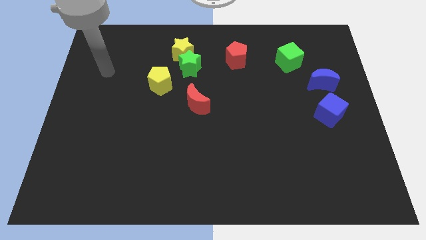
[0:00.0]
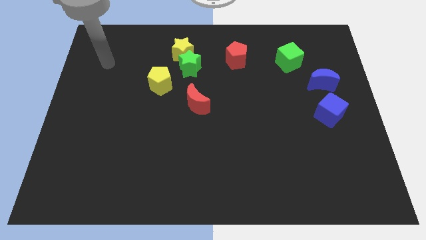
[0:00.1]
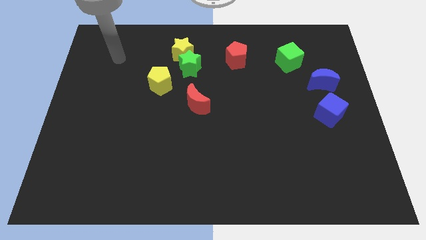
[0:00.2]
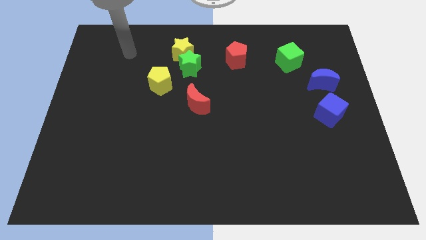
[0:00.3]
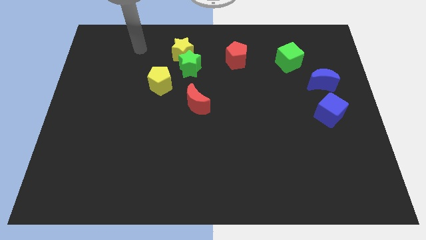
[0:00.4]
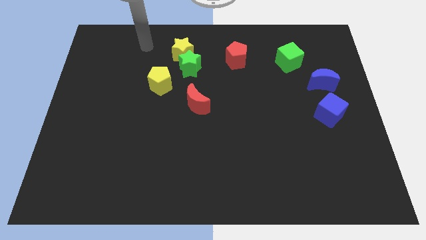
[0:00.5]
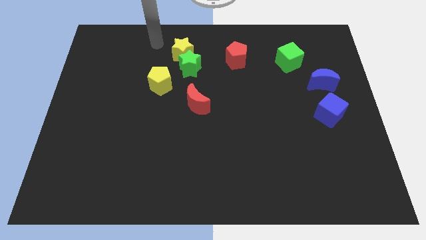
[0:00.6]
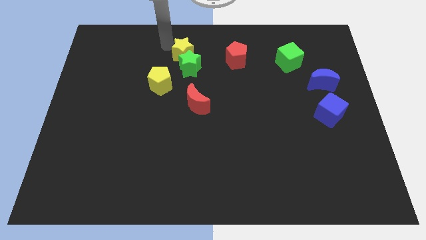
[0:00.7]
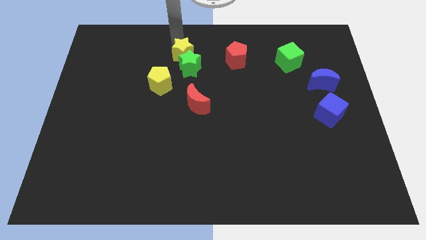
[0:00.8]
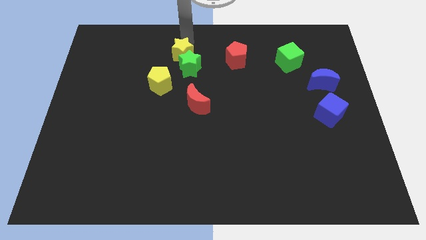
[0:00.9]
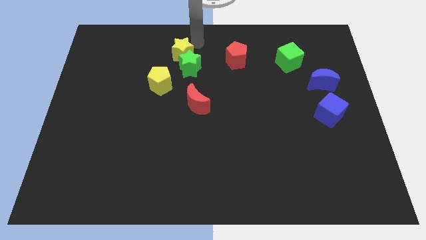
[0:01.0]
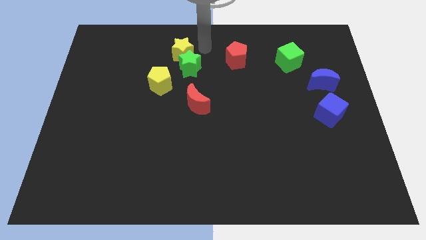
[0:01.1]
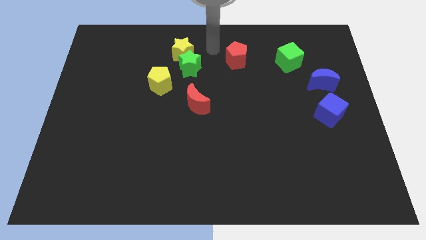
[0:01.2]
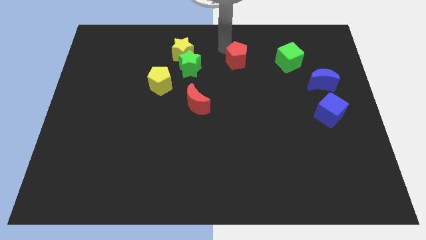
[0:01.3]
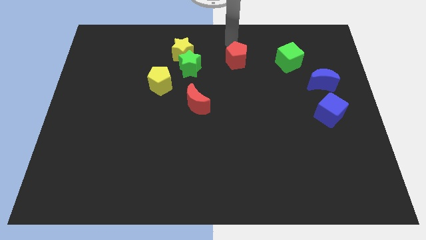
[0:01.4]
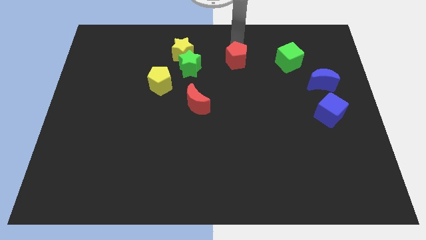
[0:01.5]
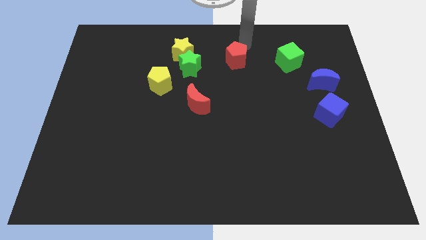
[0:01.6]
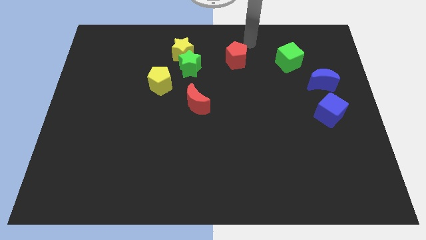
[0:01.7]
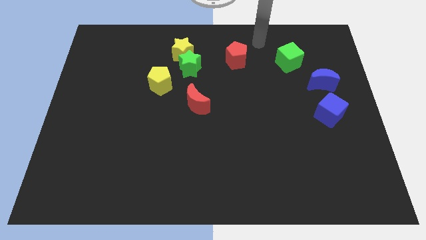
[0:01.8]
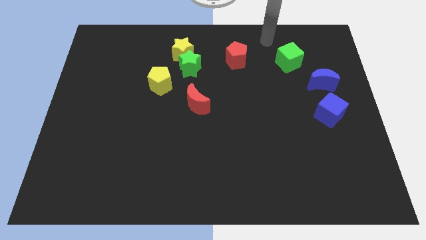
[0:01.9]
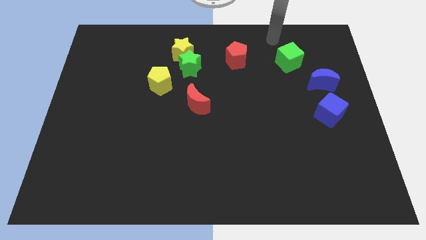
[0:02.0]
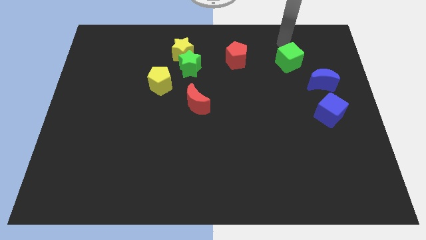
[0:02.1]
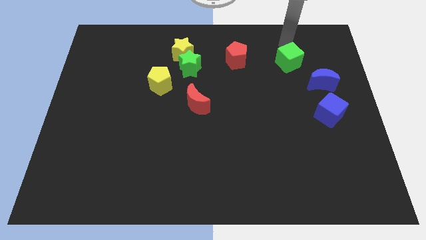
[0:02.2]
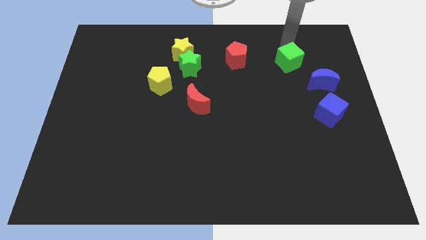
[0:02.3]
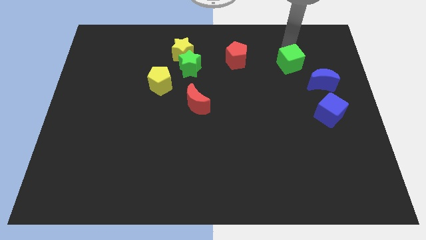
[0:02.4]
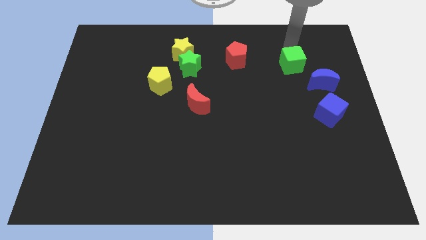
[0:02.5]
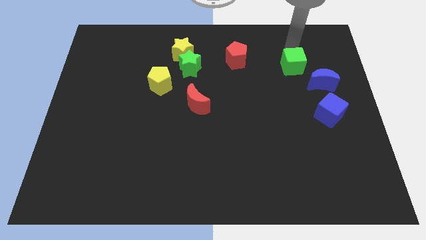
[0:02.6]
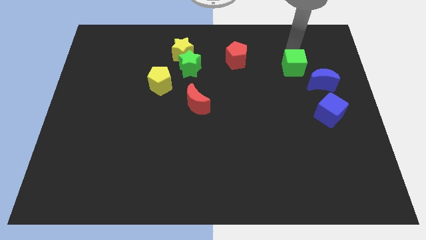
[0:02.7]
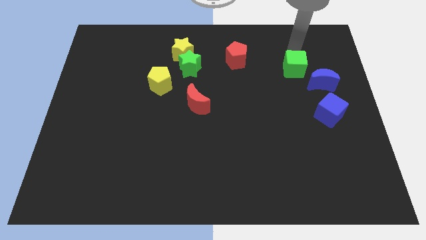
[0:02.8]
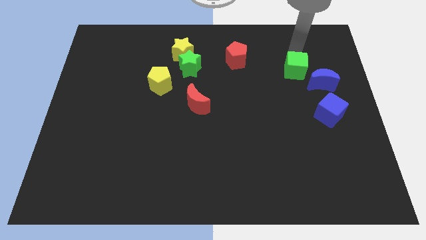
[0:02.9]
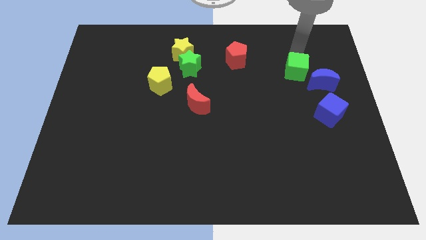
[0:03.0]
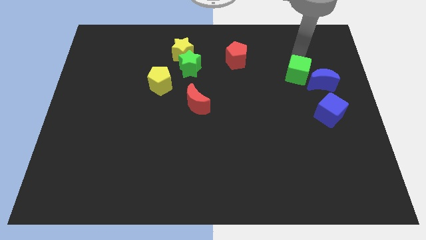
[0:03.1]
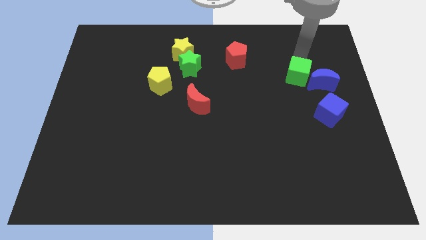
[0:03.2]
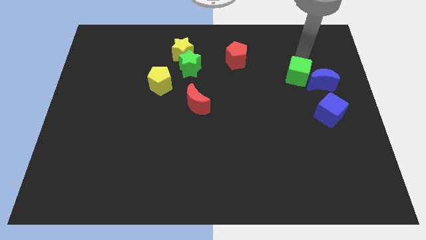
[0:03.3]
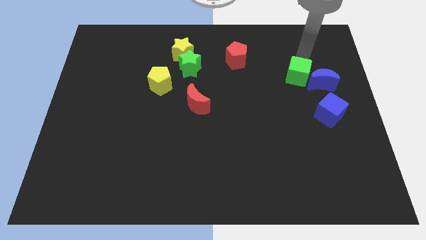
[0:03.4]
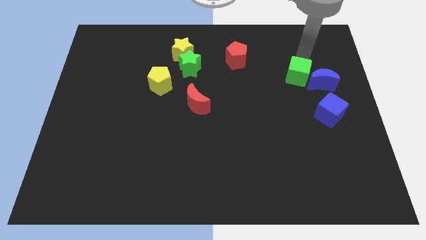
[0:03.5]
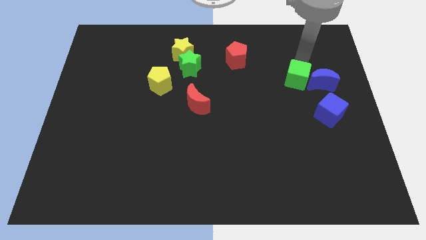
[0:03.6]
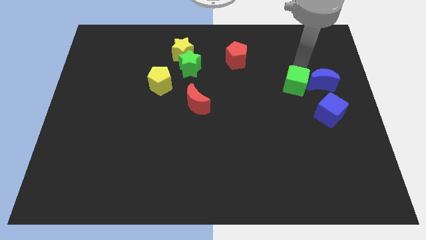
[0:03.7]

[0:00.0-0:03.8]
move the green cube downwards a little bit

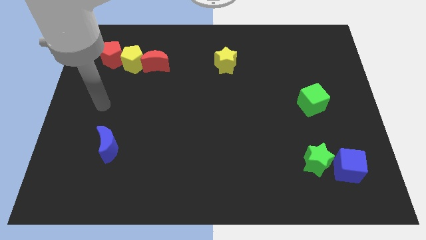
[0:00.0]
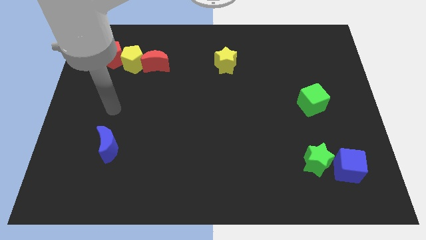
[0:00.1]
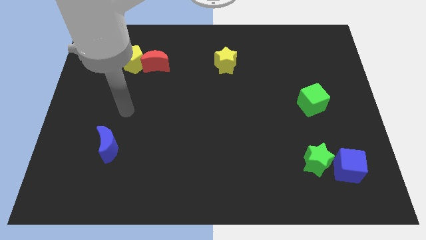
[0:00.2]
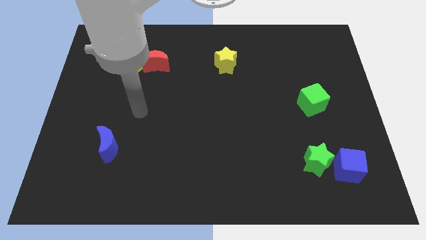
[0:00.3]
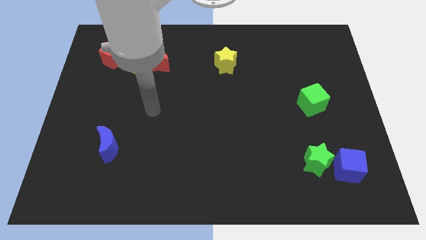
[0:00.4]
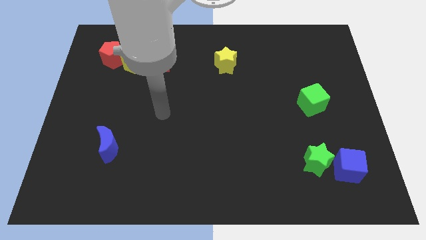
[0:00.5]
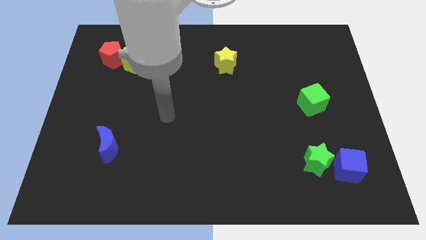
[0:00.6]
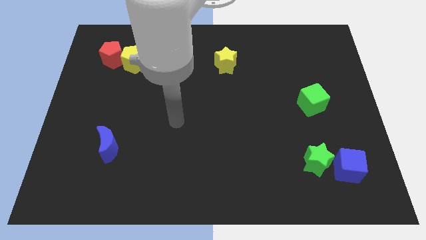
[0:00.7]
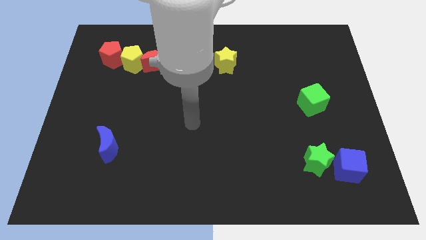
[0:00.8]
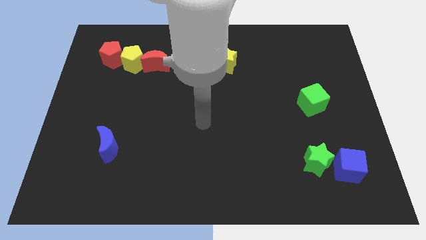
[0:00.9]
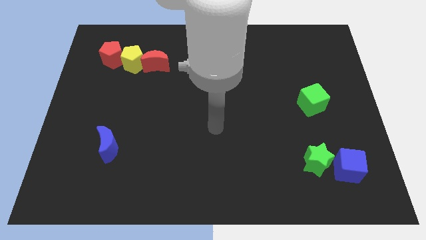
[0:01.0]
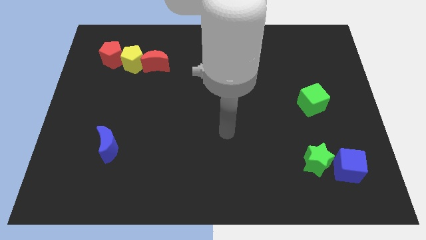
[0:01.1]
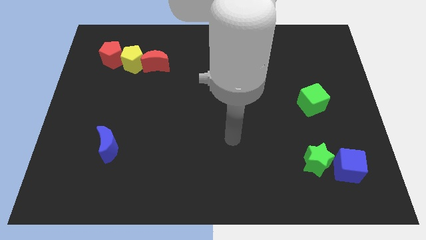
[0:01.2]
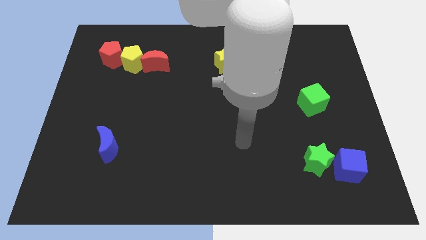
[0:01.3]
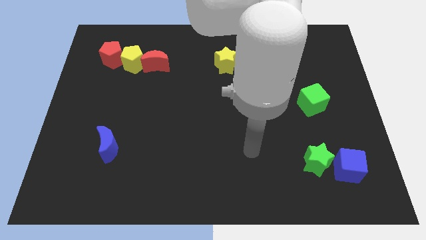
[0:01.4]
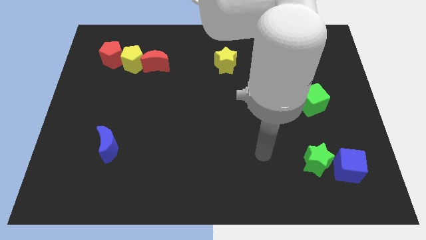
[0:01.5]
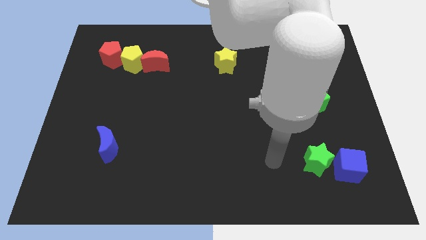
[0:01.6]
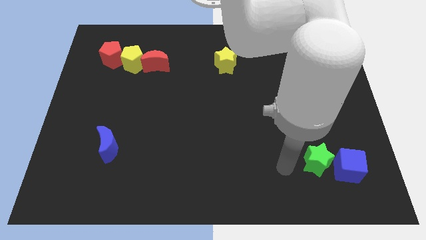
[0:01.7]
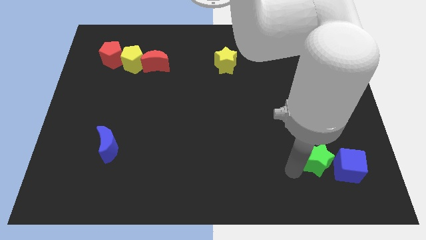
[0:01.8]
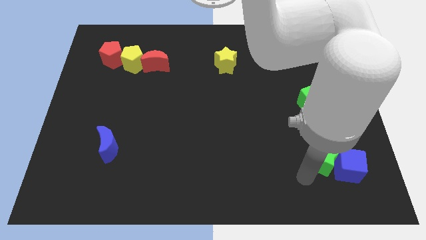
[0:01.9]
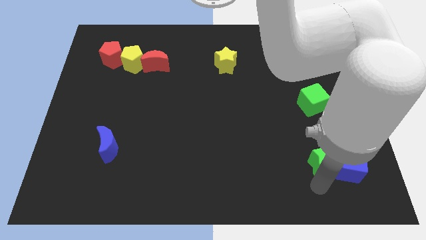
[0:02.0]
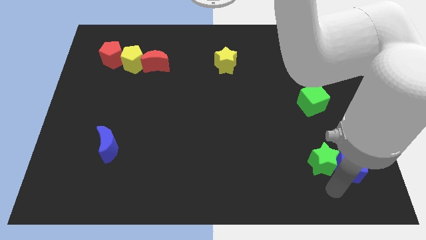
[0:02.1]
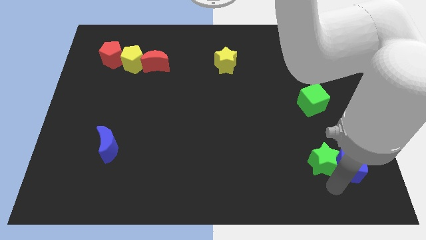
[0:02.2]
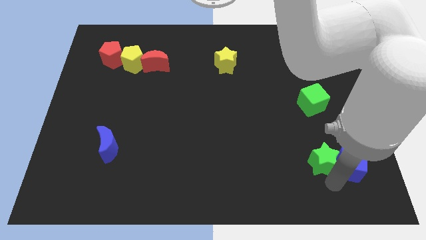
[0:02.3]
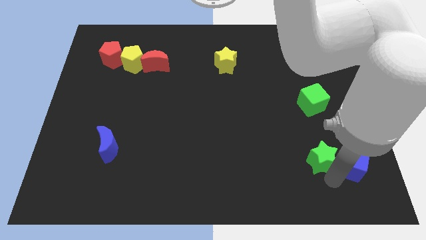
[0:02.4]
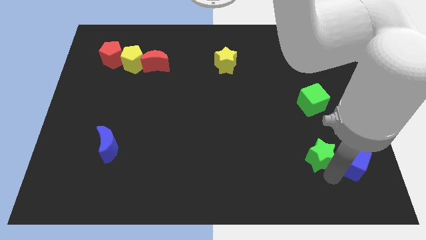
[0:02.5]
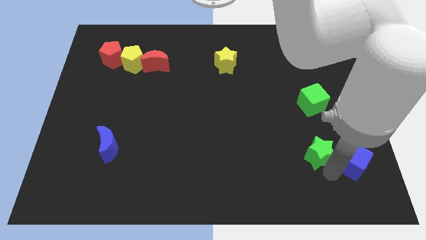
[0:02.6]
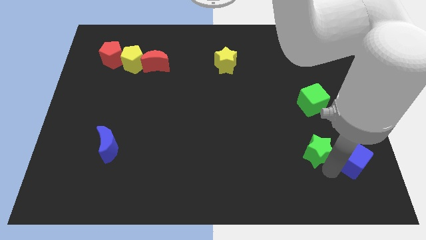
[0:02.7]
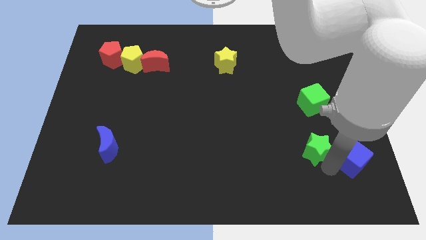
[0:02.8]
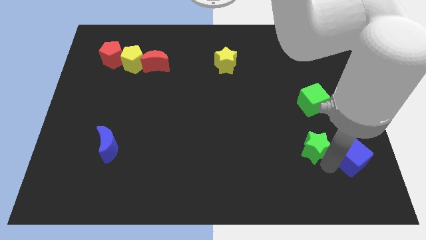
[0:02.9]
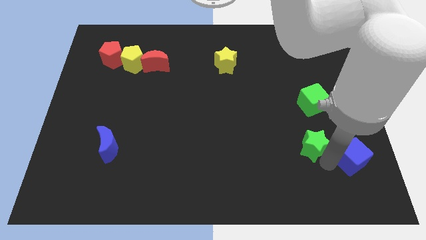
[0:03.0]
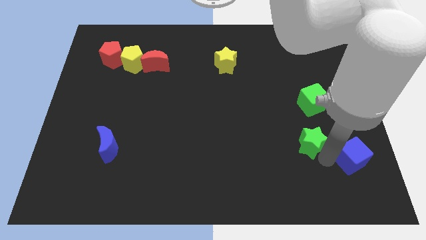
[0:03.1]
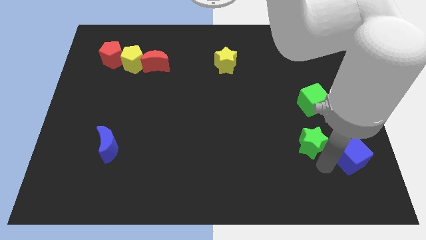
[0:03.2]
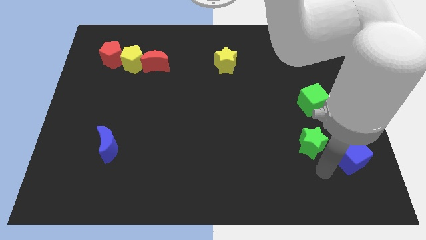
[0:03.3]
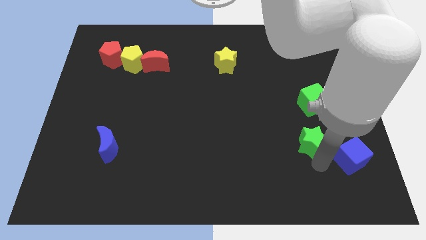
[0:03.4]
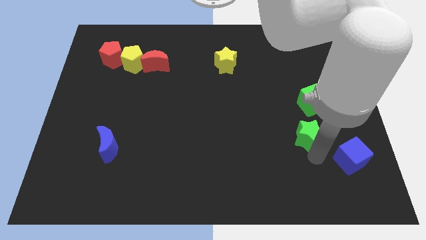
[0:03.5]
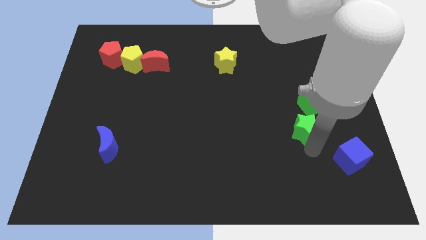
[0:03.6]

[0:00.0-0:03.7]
push the green star up a bit

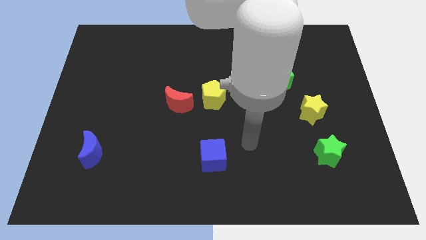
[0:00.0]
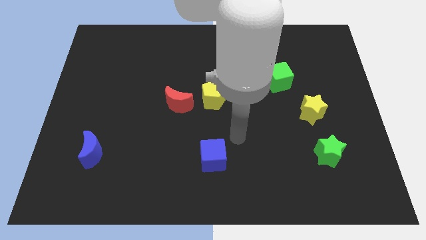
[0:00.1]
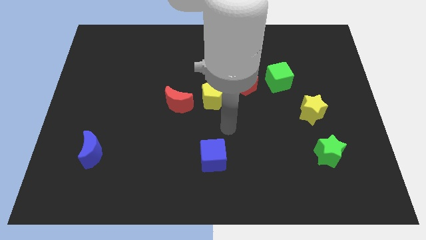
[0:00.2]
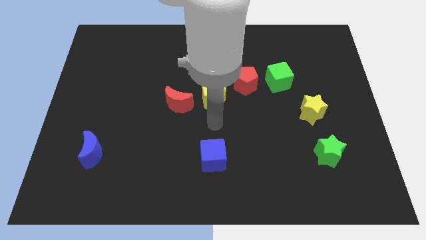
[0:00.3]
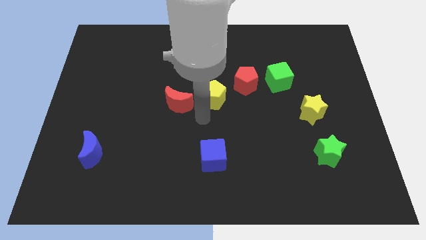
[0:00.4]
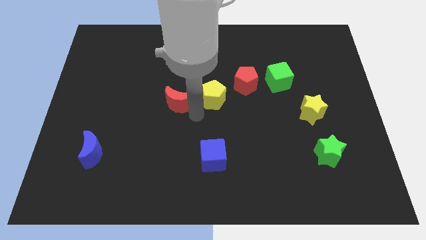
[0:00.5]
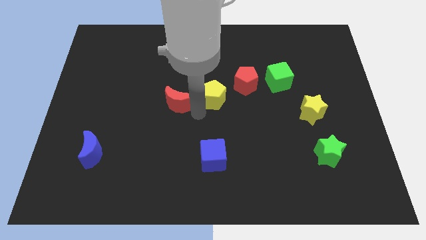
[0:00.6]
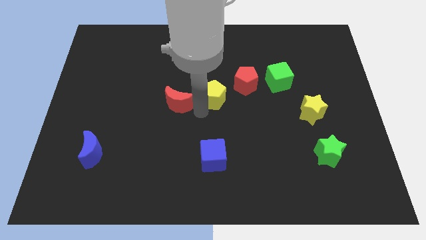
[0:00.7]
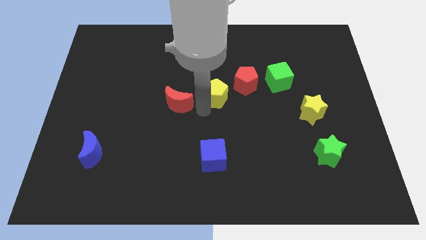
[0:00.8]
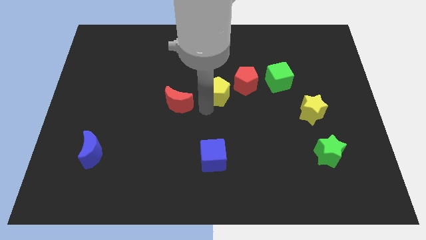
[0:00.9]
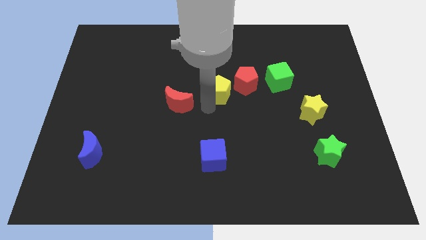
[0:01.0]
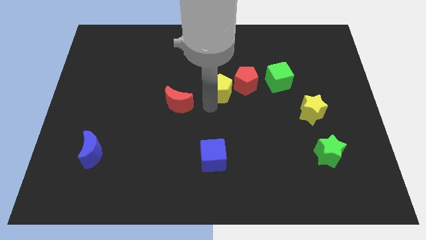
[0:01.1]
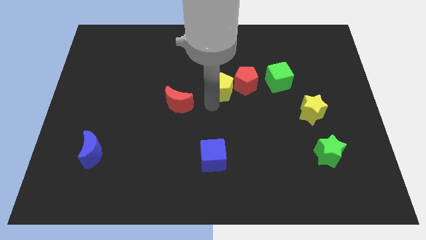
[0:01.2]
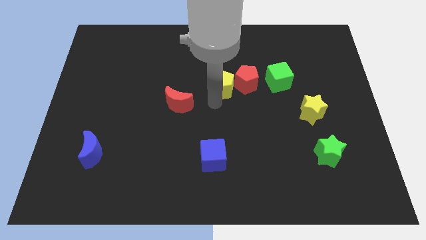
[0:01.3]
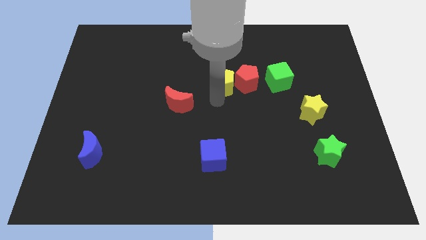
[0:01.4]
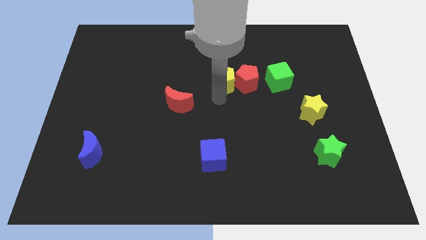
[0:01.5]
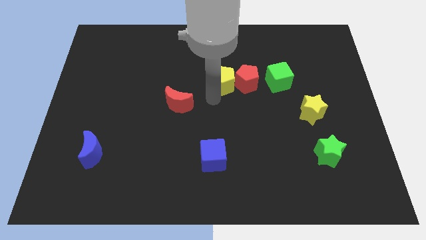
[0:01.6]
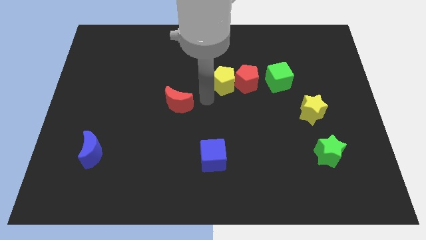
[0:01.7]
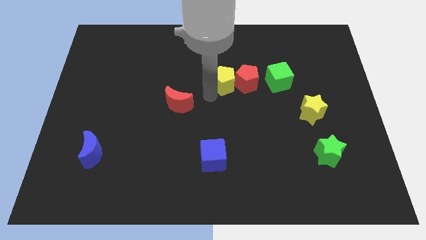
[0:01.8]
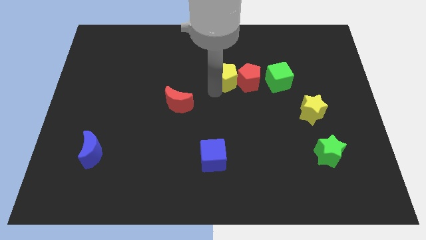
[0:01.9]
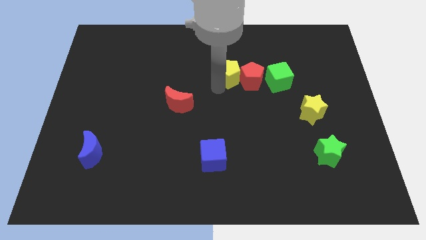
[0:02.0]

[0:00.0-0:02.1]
push the yellow pentagon upwards and to the right a bit
